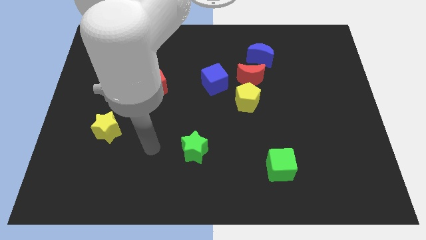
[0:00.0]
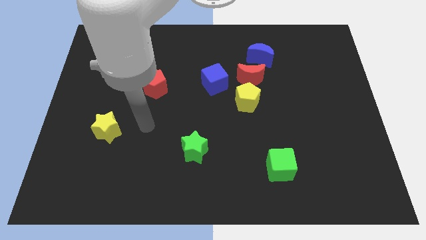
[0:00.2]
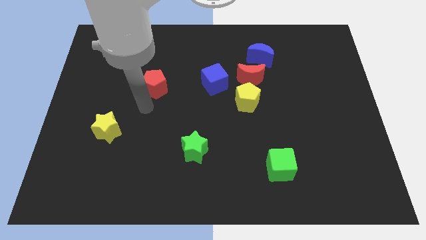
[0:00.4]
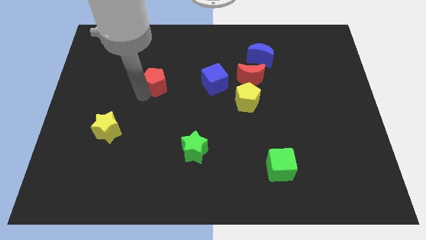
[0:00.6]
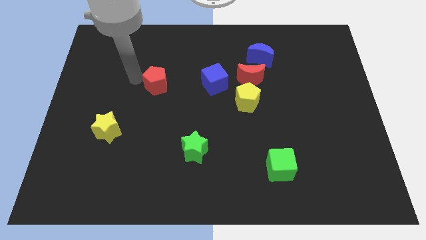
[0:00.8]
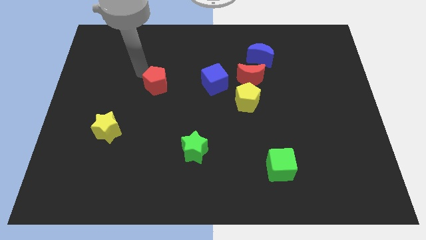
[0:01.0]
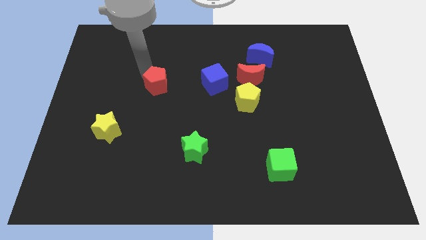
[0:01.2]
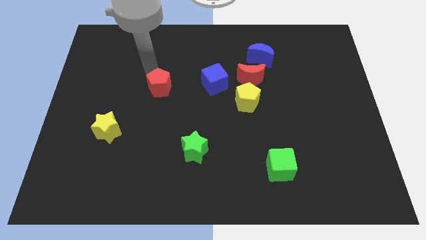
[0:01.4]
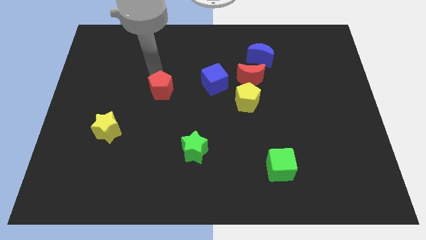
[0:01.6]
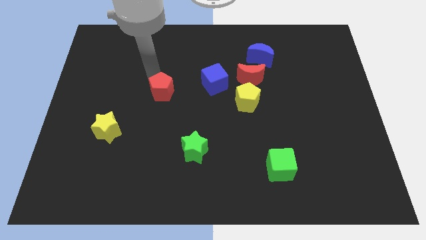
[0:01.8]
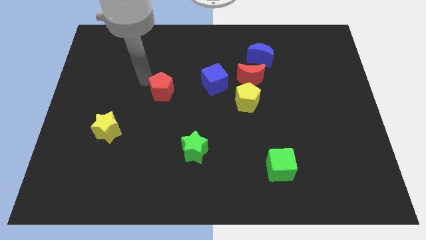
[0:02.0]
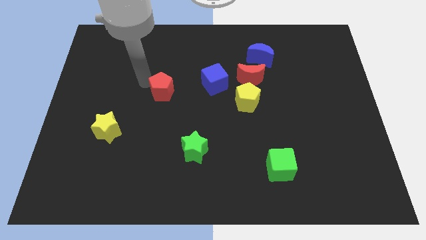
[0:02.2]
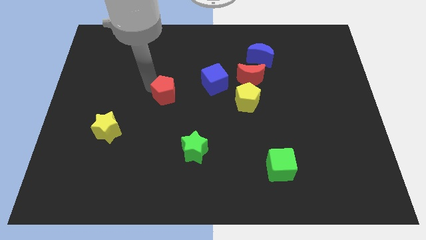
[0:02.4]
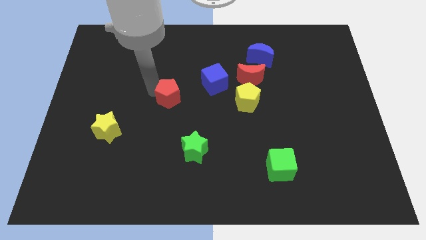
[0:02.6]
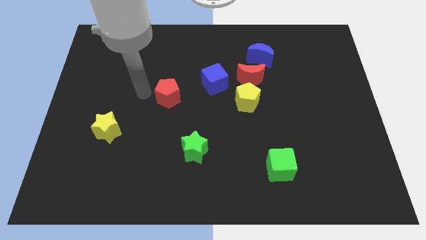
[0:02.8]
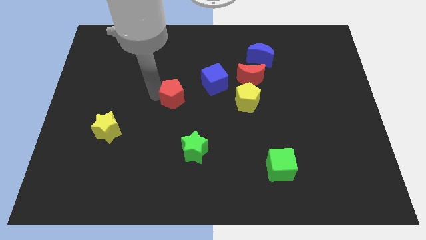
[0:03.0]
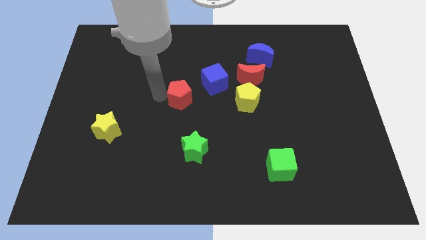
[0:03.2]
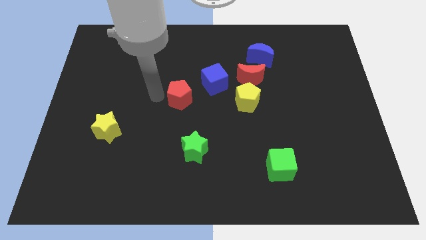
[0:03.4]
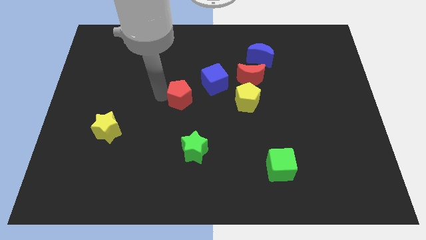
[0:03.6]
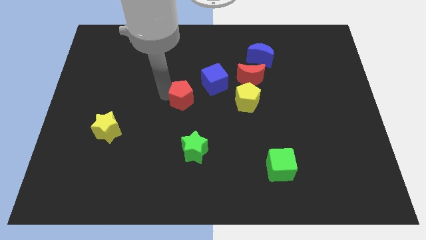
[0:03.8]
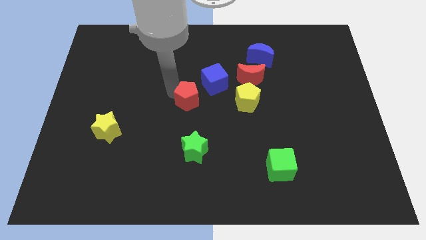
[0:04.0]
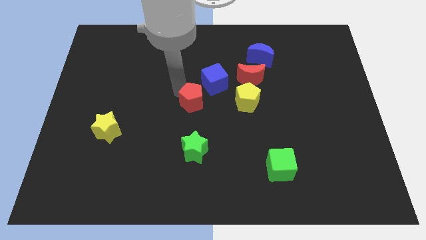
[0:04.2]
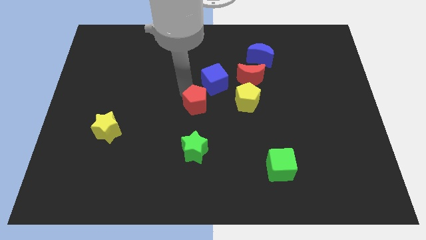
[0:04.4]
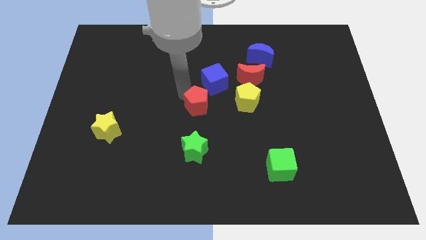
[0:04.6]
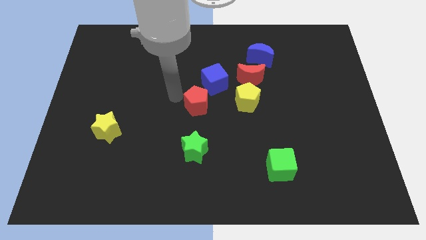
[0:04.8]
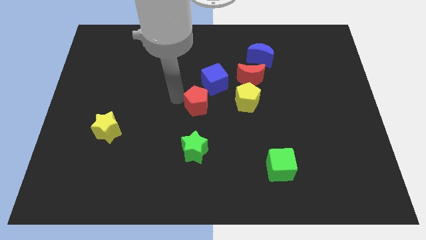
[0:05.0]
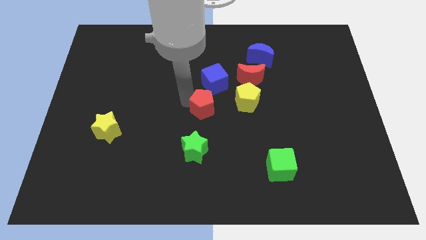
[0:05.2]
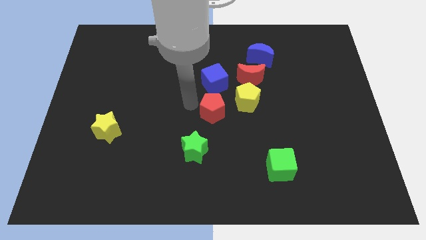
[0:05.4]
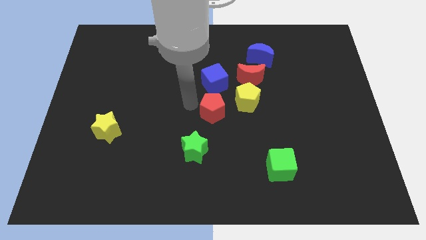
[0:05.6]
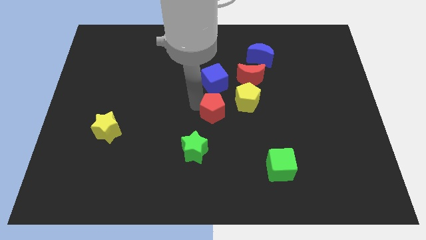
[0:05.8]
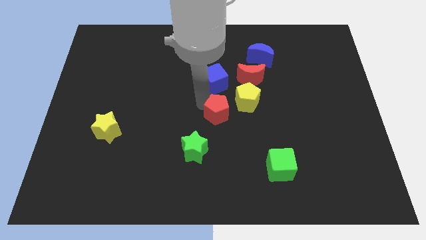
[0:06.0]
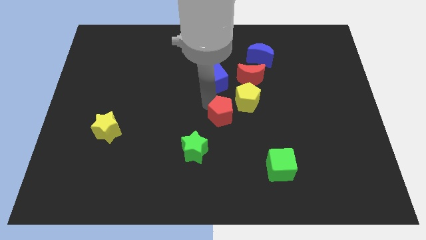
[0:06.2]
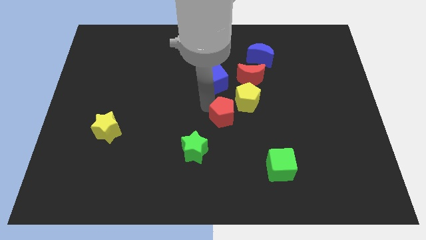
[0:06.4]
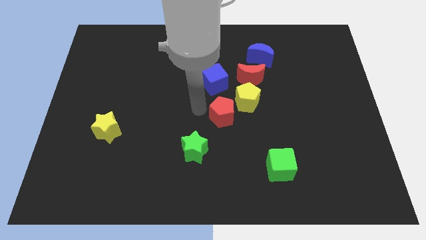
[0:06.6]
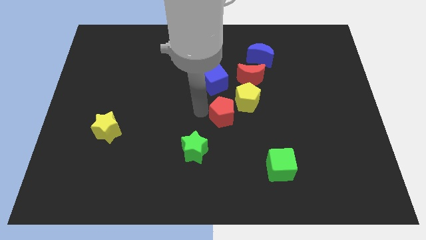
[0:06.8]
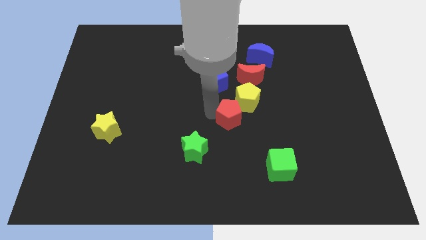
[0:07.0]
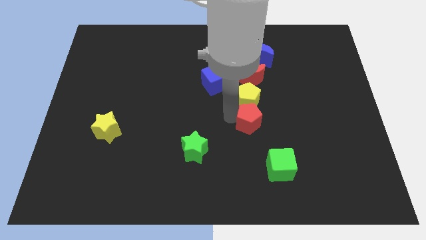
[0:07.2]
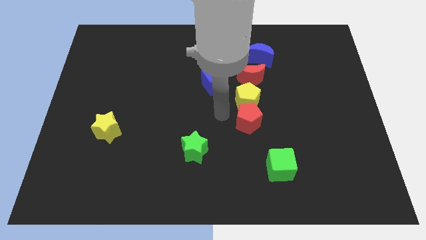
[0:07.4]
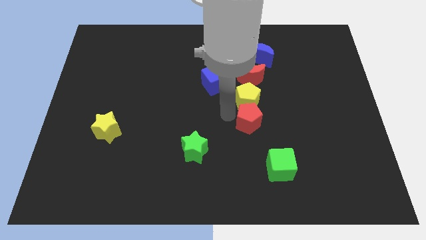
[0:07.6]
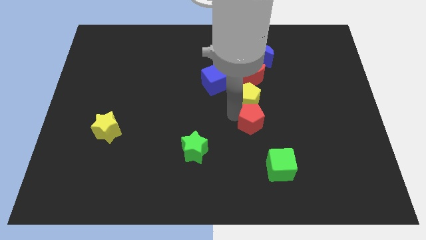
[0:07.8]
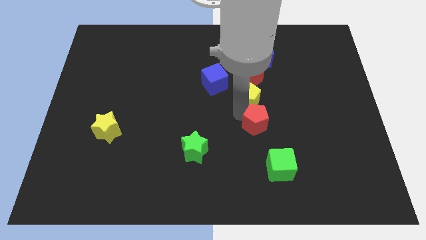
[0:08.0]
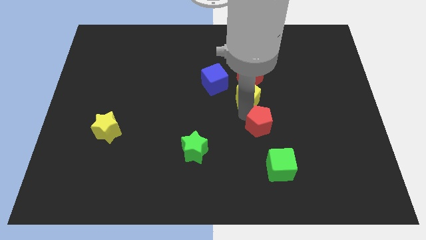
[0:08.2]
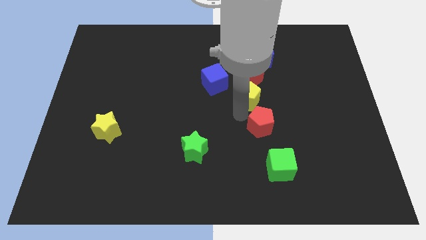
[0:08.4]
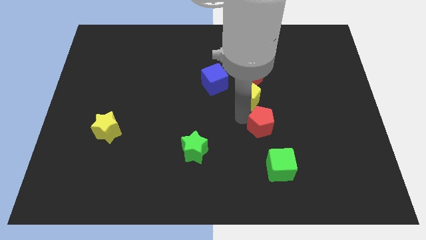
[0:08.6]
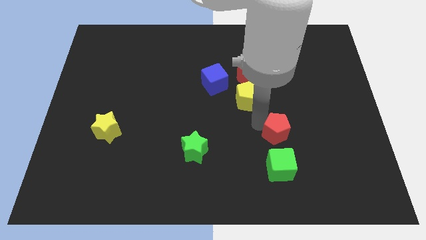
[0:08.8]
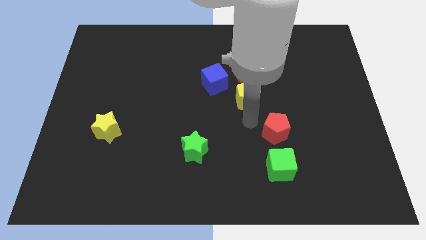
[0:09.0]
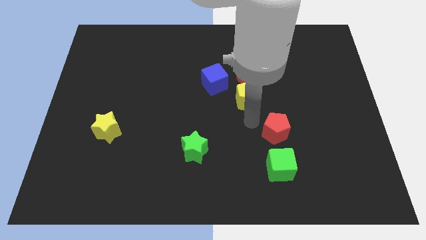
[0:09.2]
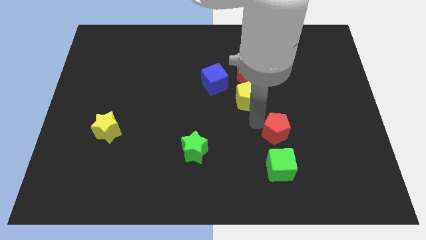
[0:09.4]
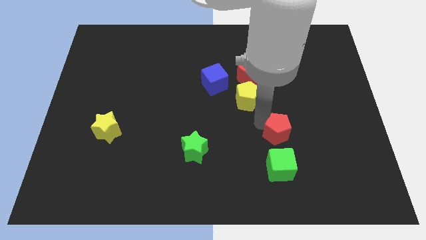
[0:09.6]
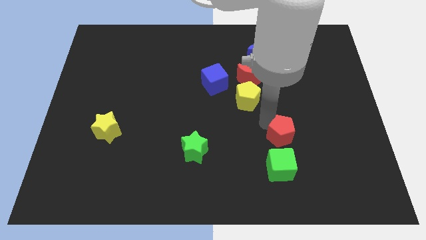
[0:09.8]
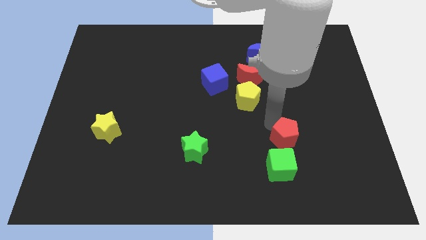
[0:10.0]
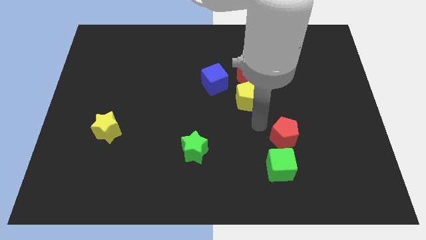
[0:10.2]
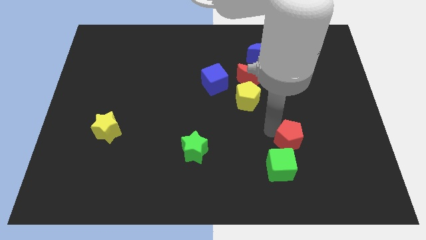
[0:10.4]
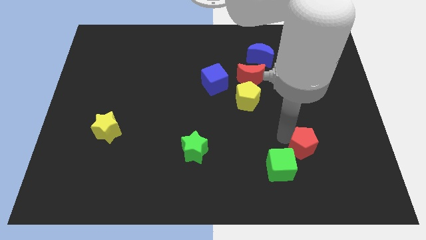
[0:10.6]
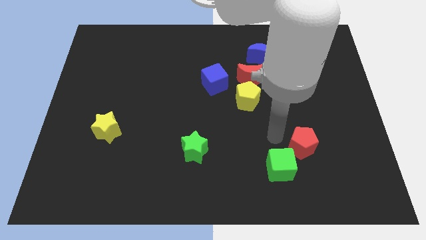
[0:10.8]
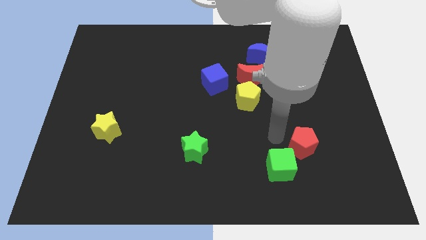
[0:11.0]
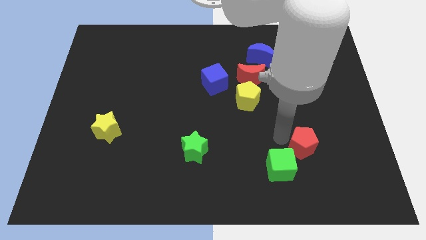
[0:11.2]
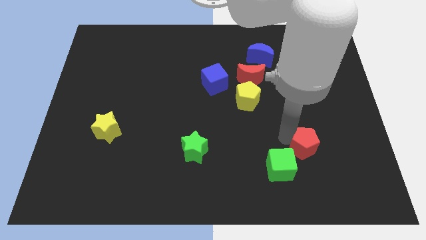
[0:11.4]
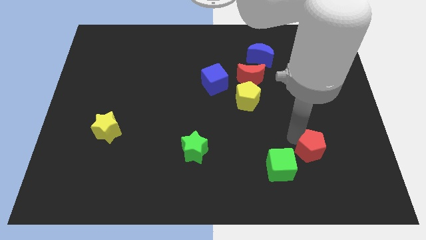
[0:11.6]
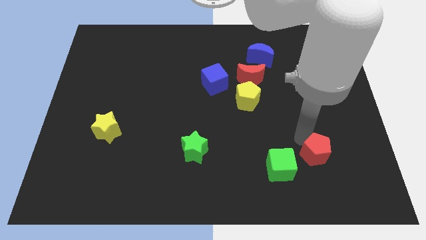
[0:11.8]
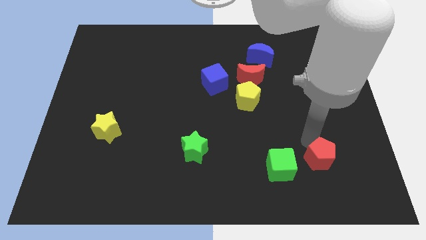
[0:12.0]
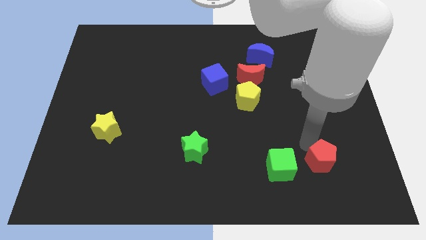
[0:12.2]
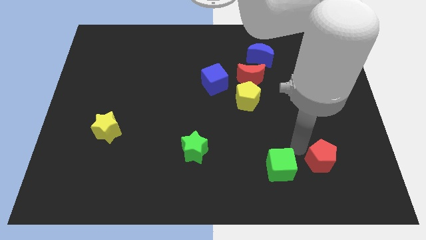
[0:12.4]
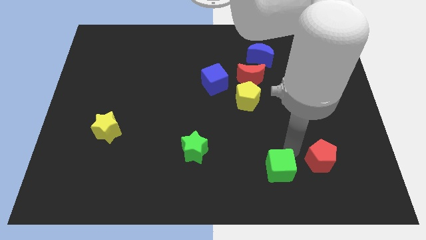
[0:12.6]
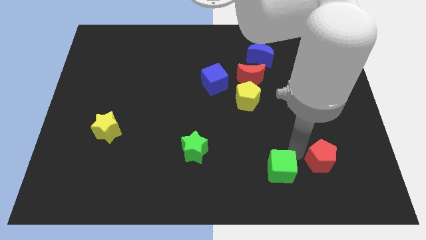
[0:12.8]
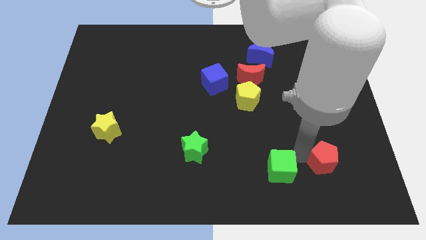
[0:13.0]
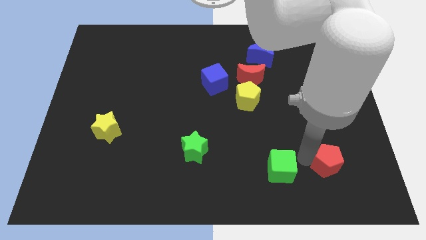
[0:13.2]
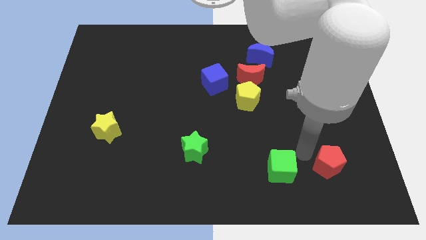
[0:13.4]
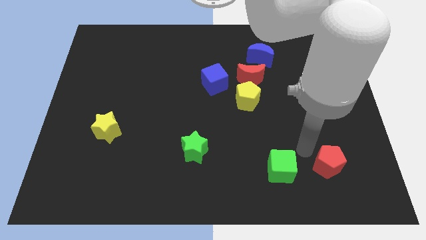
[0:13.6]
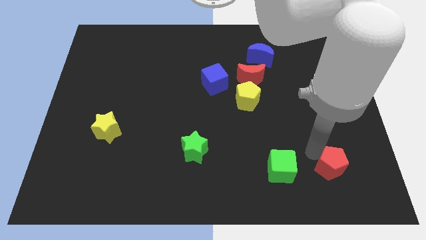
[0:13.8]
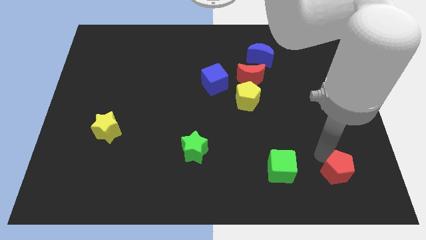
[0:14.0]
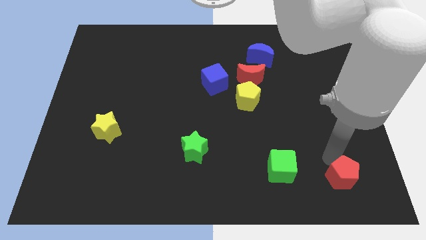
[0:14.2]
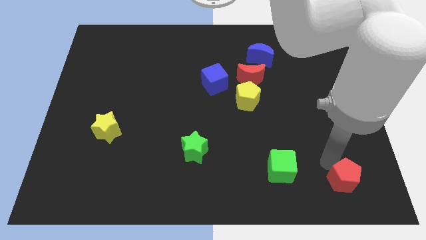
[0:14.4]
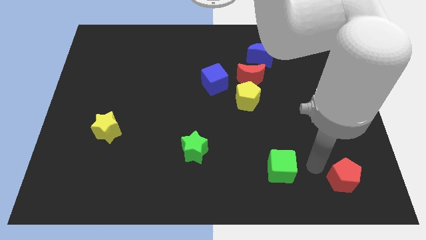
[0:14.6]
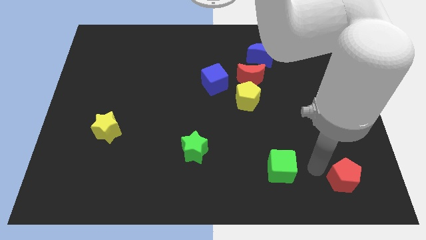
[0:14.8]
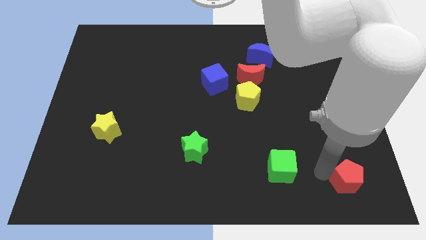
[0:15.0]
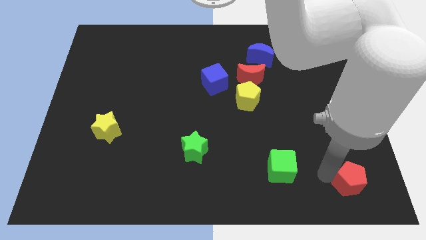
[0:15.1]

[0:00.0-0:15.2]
push the red pentagon to the bottom right corner
